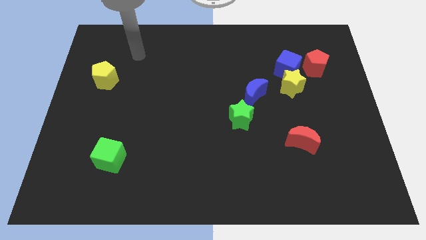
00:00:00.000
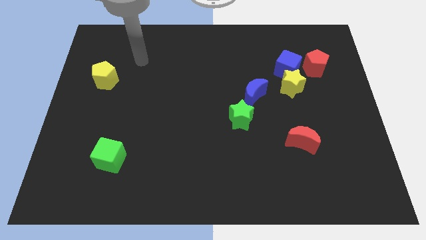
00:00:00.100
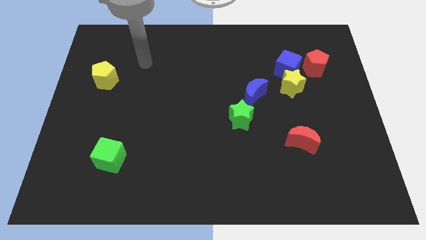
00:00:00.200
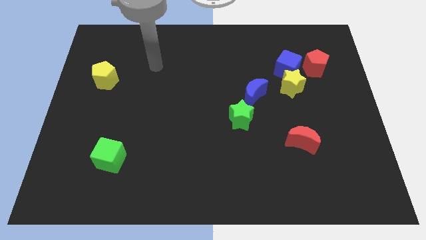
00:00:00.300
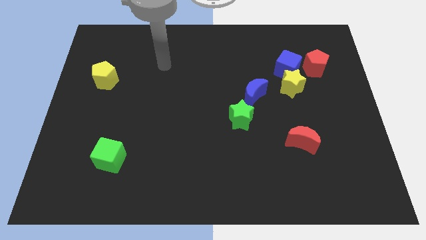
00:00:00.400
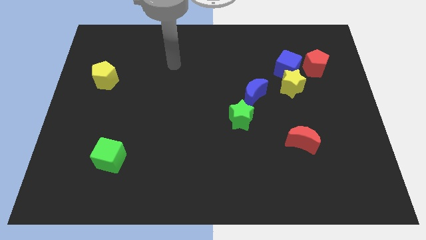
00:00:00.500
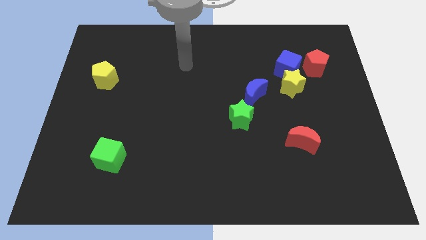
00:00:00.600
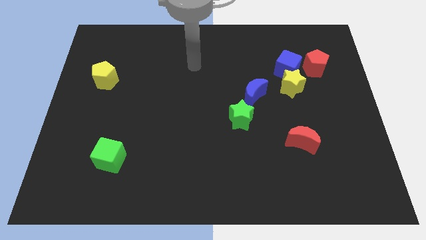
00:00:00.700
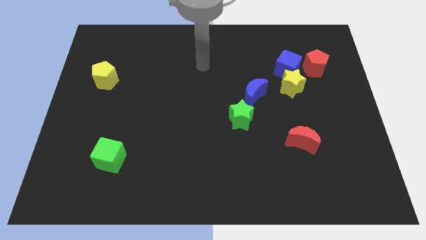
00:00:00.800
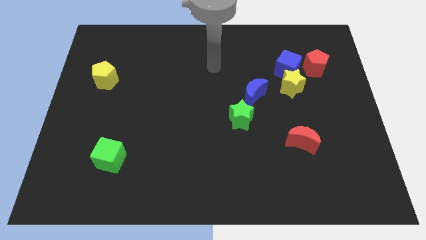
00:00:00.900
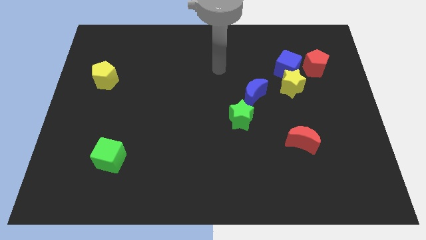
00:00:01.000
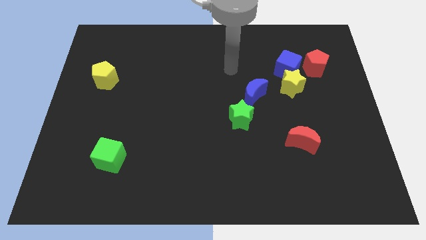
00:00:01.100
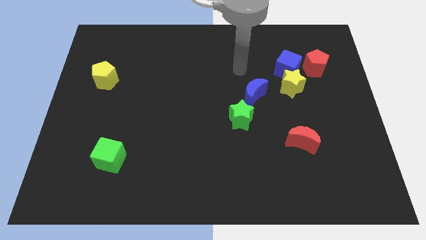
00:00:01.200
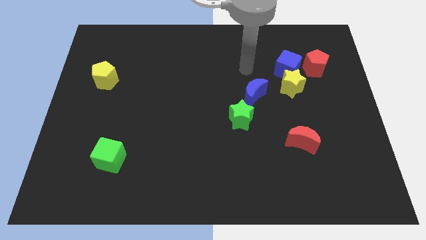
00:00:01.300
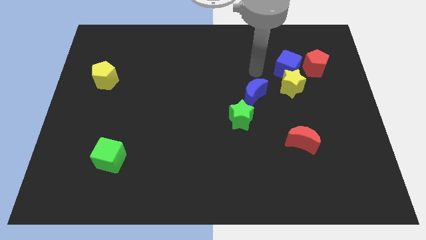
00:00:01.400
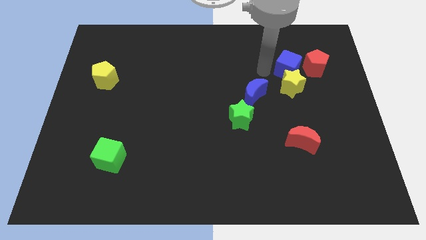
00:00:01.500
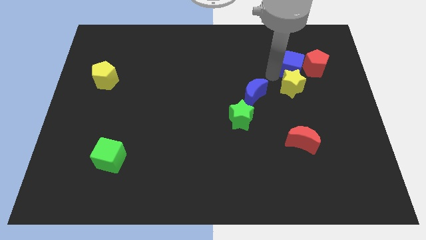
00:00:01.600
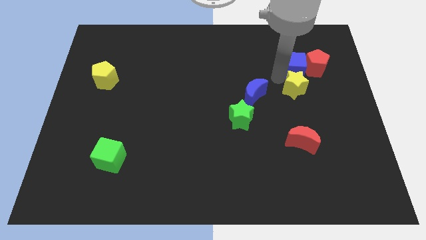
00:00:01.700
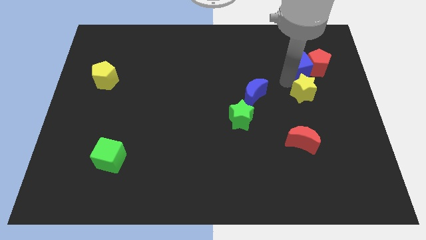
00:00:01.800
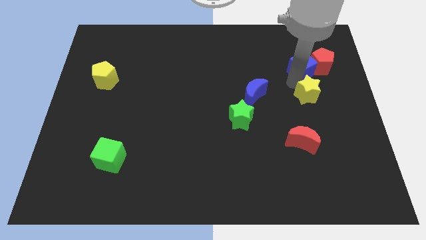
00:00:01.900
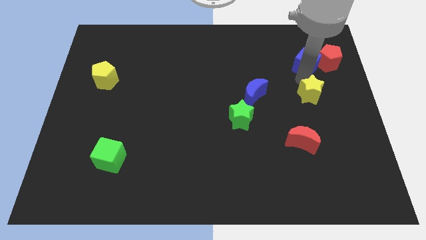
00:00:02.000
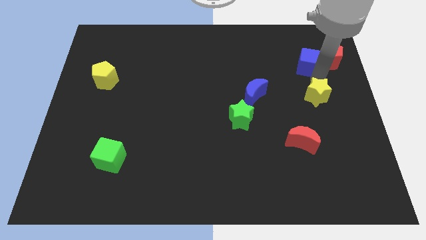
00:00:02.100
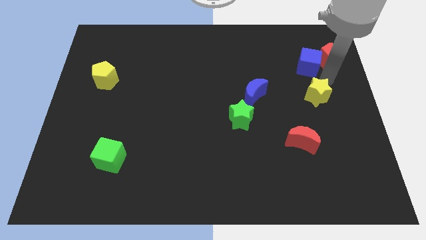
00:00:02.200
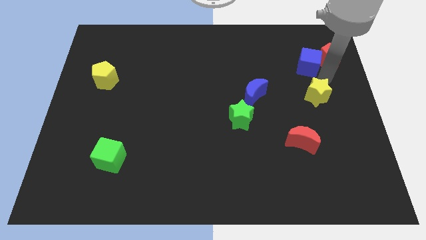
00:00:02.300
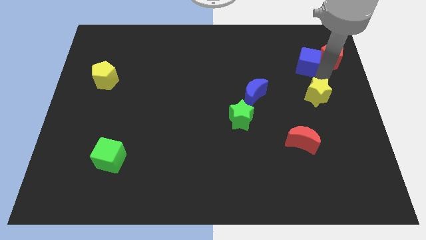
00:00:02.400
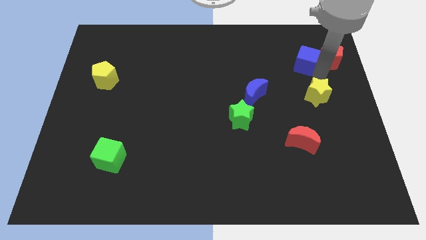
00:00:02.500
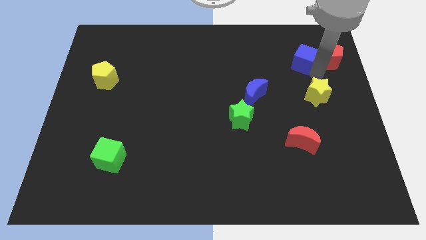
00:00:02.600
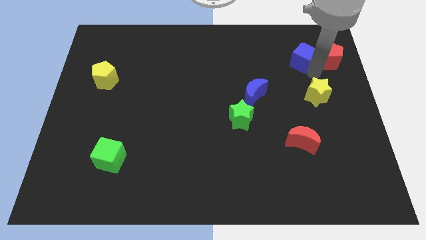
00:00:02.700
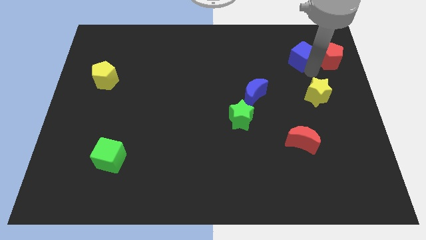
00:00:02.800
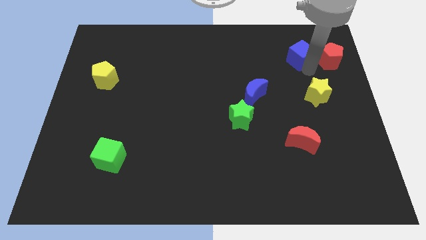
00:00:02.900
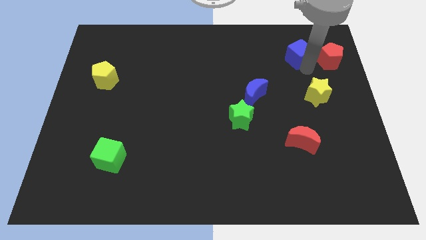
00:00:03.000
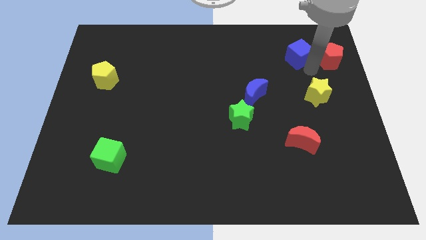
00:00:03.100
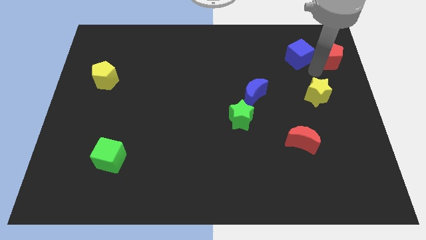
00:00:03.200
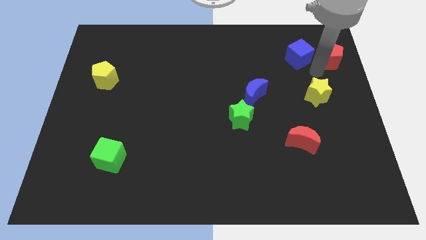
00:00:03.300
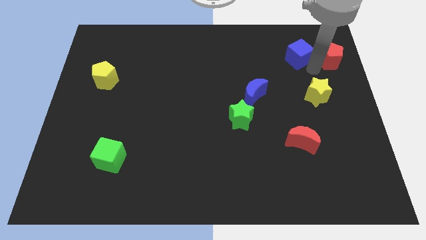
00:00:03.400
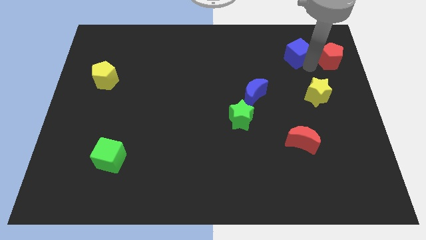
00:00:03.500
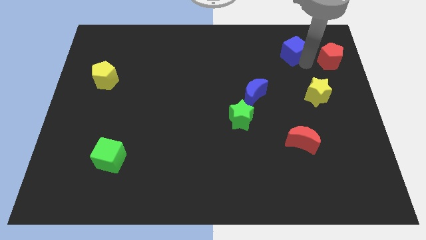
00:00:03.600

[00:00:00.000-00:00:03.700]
pull the blue cube apart from the yellow star and red pentagon

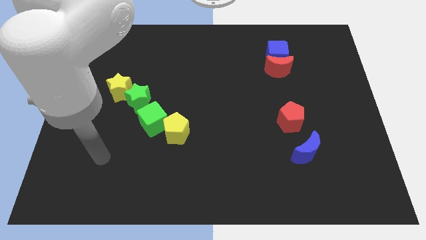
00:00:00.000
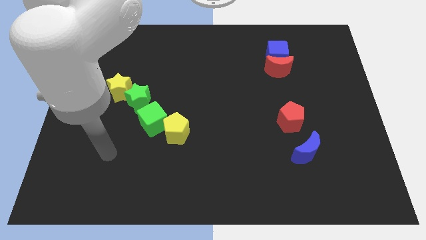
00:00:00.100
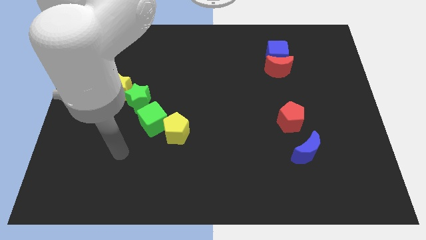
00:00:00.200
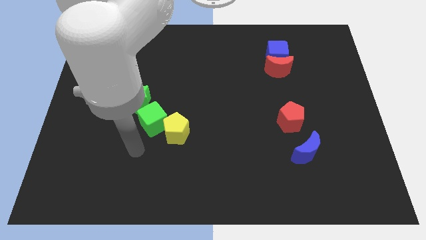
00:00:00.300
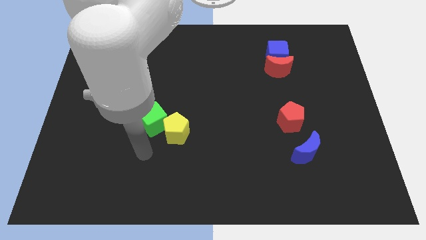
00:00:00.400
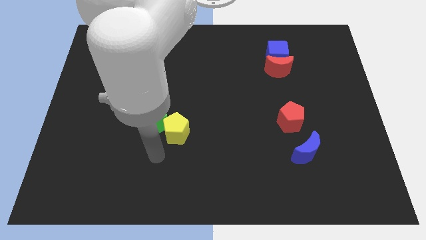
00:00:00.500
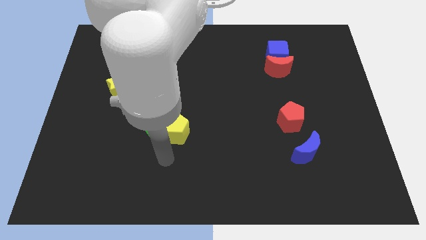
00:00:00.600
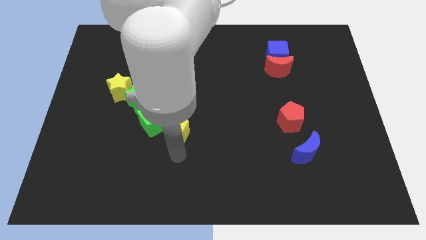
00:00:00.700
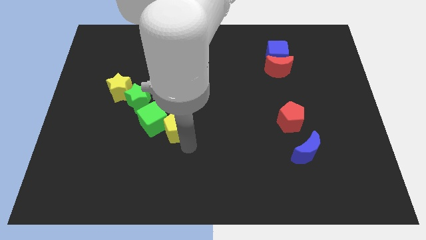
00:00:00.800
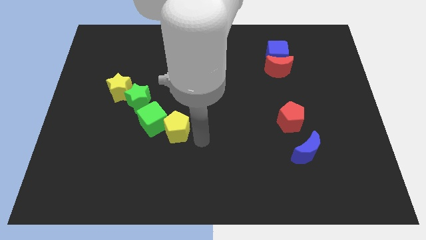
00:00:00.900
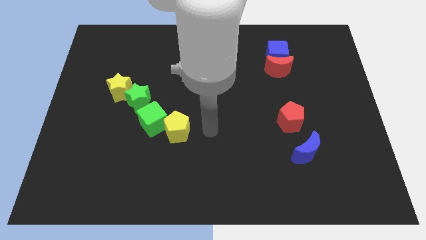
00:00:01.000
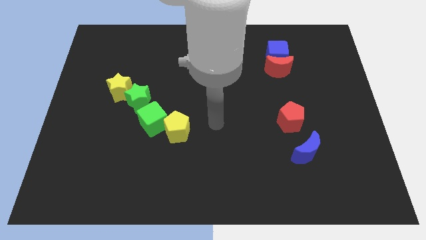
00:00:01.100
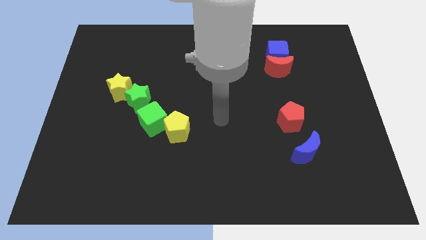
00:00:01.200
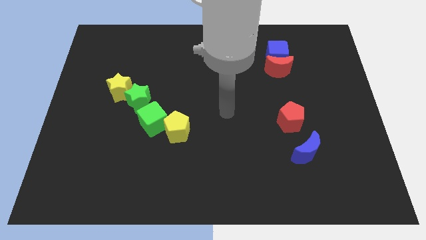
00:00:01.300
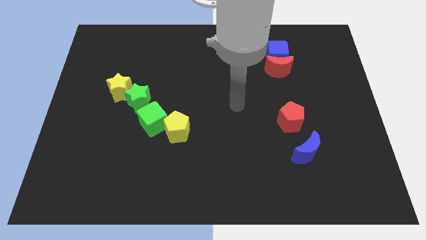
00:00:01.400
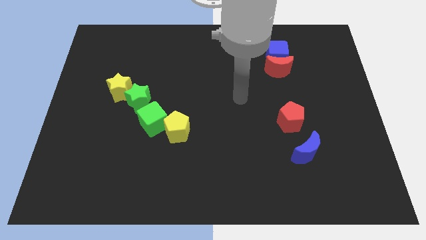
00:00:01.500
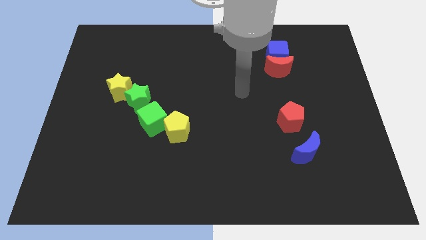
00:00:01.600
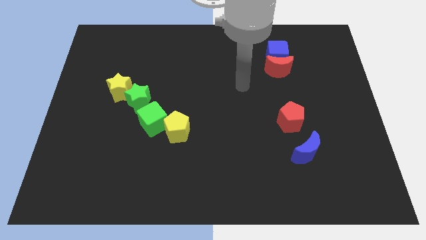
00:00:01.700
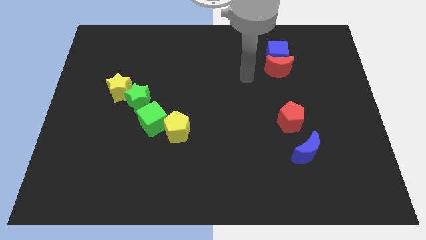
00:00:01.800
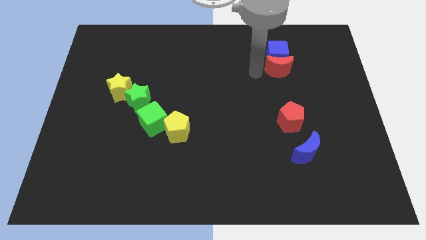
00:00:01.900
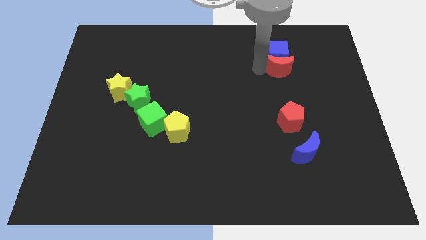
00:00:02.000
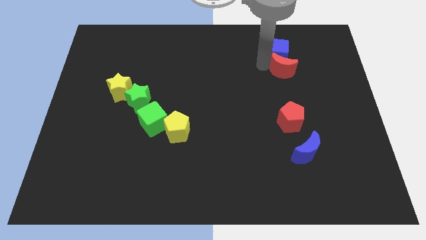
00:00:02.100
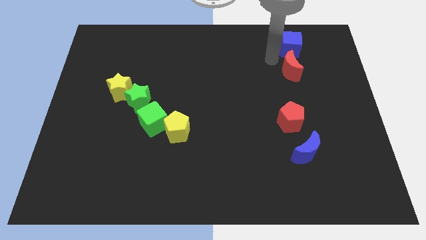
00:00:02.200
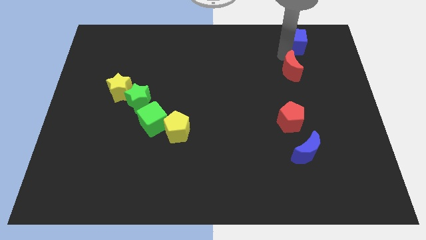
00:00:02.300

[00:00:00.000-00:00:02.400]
move the red moon away from the blue cube

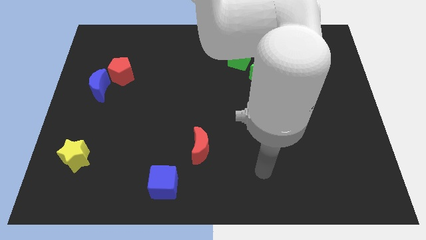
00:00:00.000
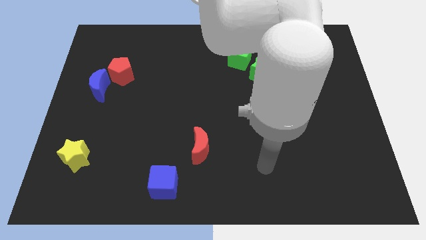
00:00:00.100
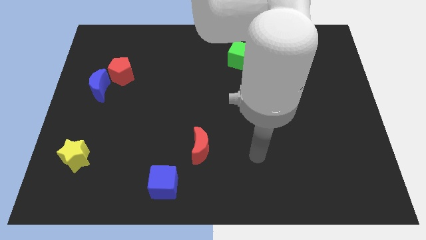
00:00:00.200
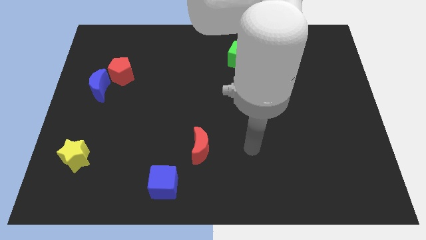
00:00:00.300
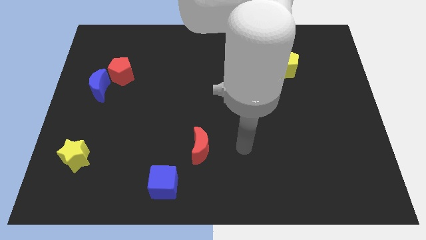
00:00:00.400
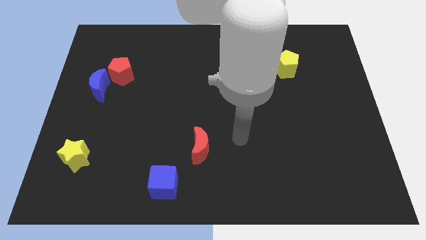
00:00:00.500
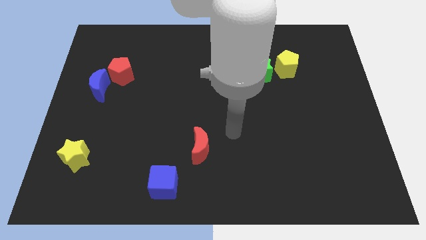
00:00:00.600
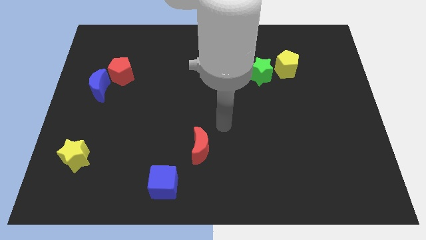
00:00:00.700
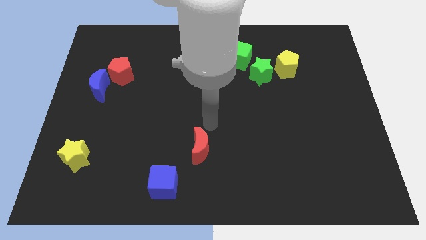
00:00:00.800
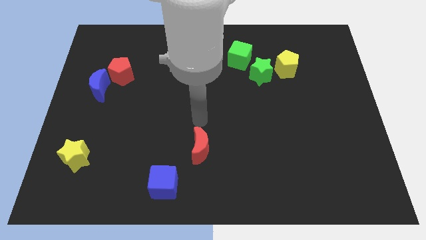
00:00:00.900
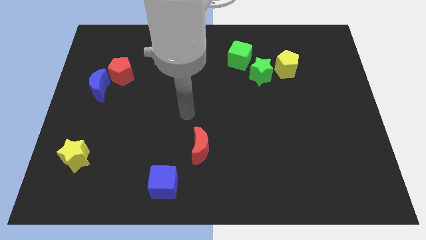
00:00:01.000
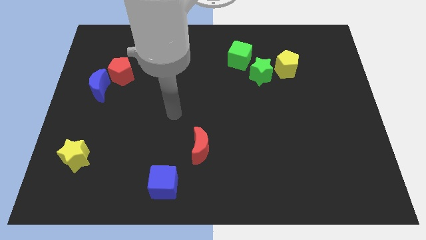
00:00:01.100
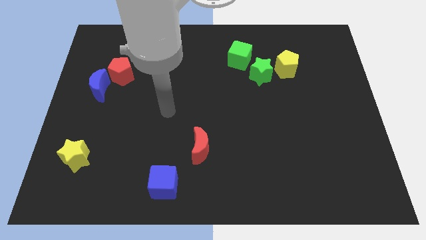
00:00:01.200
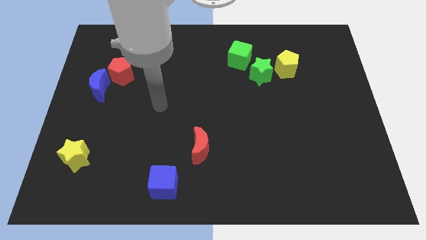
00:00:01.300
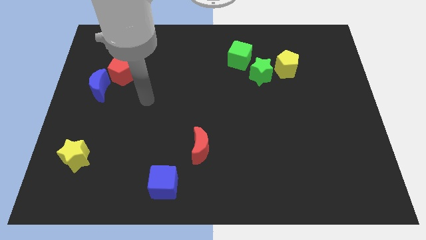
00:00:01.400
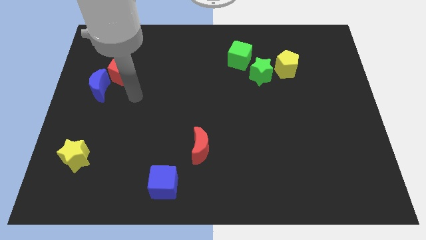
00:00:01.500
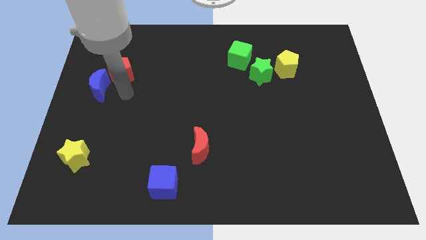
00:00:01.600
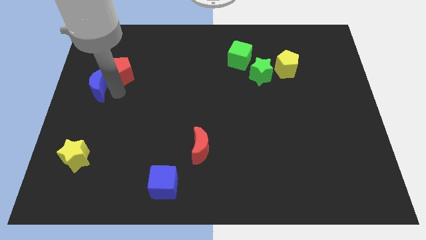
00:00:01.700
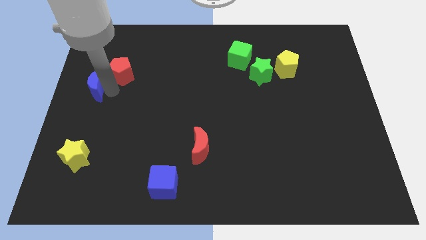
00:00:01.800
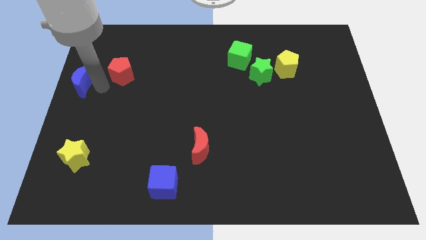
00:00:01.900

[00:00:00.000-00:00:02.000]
separate the red pentagon from the blue moon

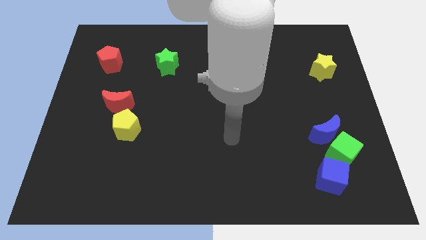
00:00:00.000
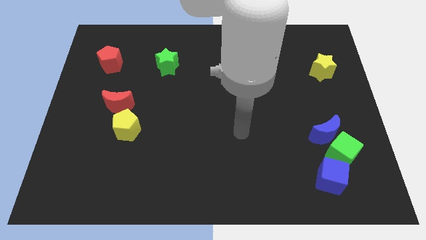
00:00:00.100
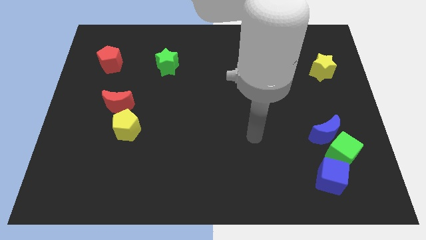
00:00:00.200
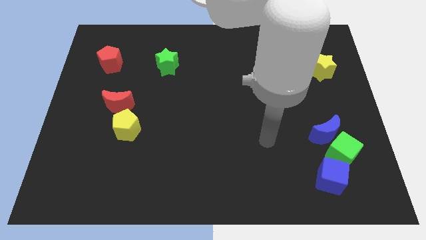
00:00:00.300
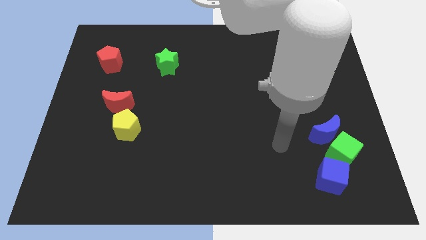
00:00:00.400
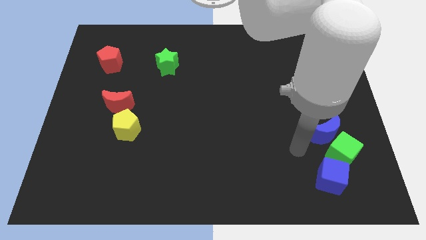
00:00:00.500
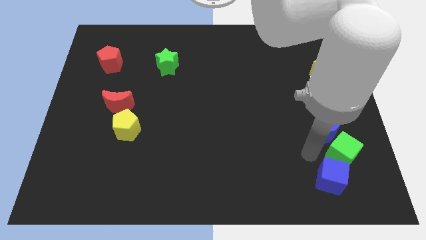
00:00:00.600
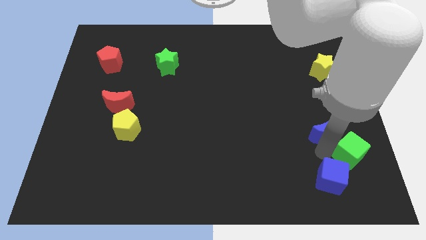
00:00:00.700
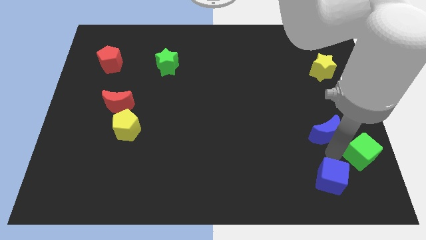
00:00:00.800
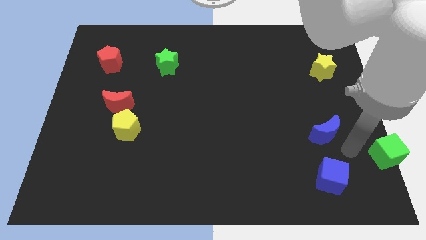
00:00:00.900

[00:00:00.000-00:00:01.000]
pull the blue moon apart from the green cube

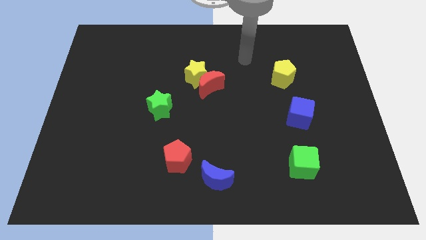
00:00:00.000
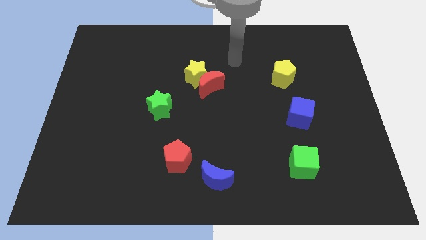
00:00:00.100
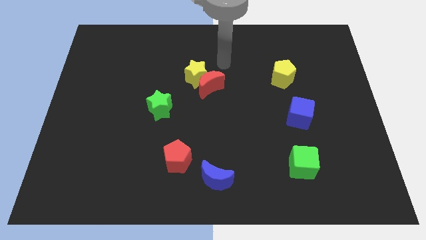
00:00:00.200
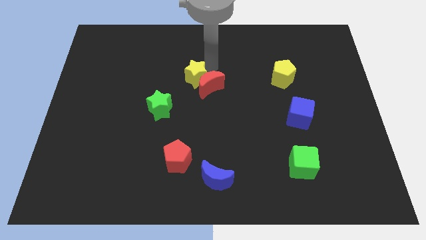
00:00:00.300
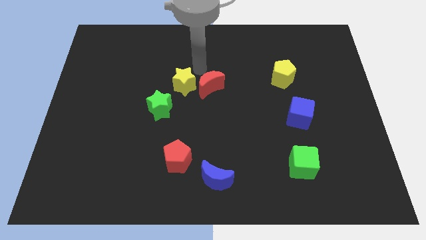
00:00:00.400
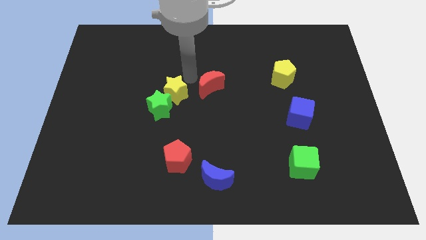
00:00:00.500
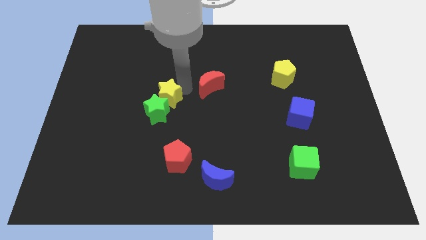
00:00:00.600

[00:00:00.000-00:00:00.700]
move the red moon away from the yellow star
